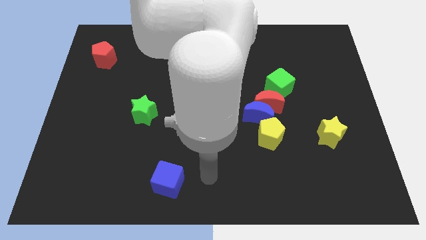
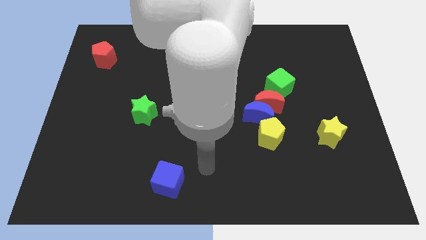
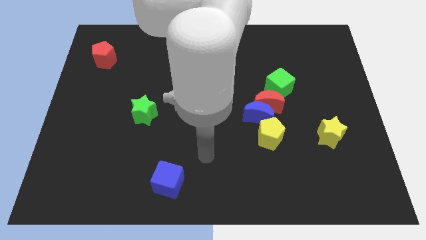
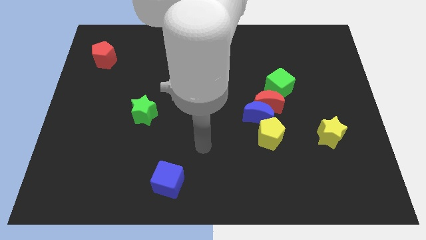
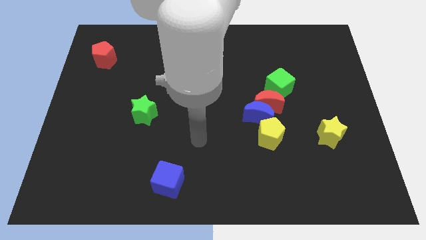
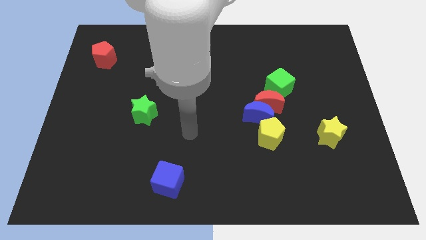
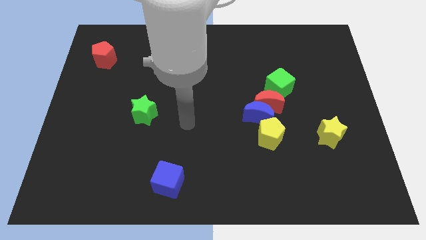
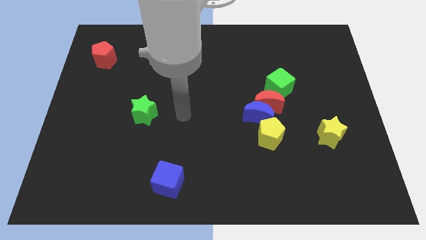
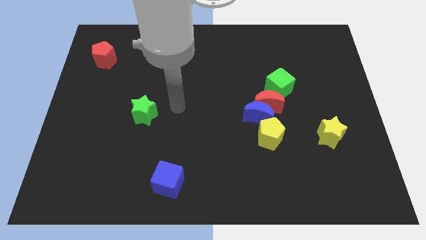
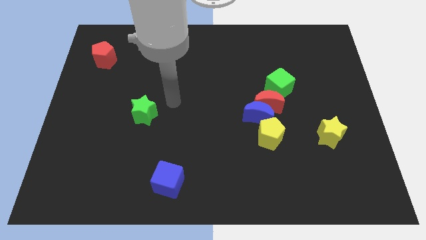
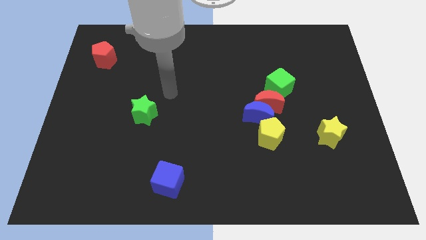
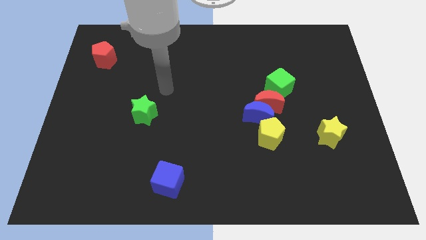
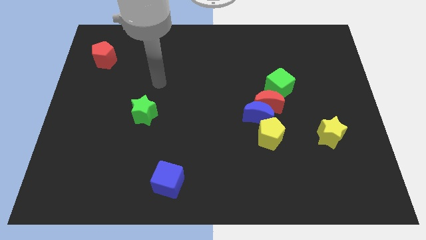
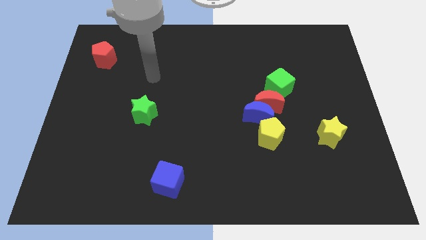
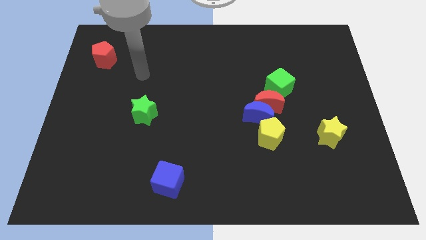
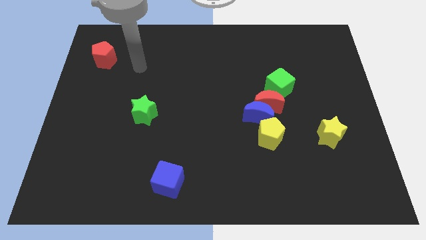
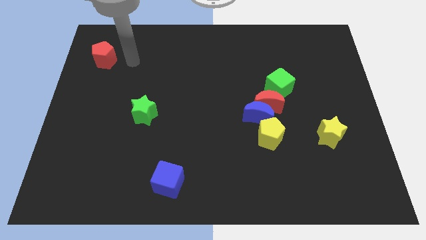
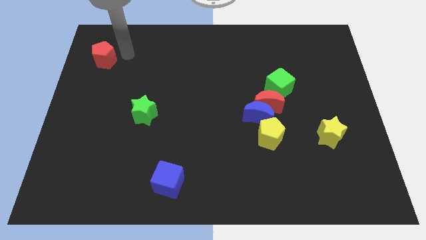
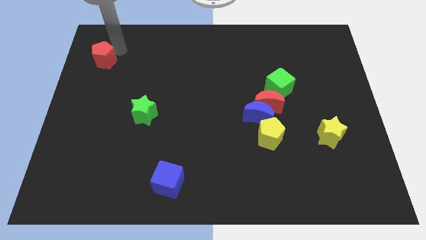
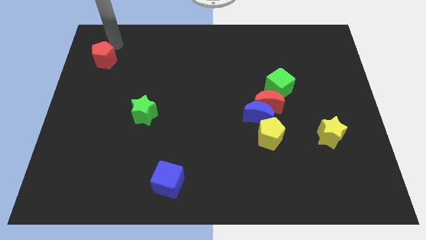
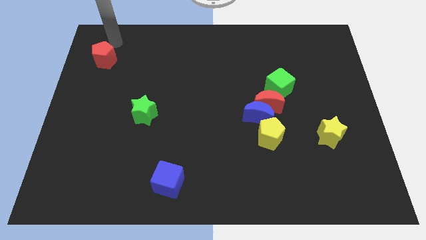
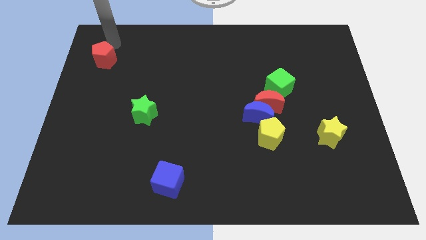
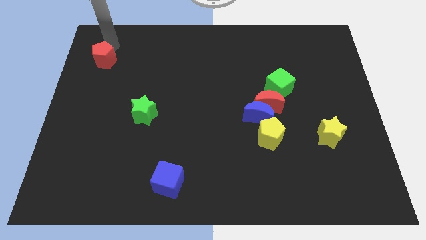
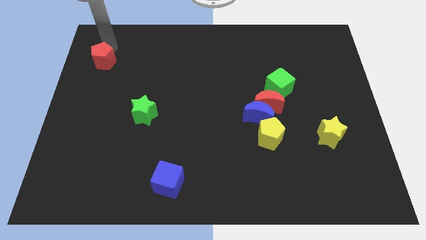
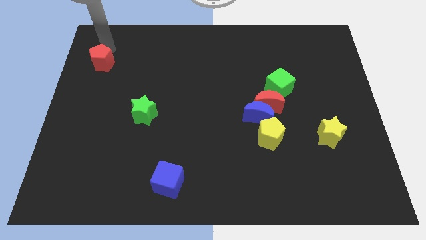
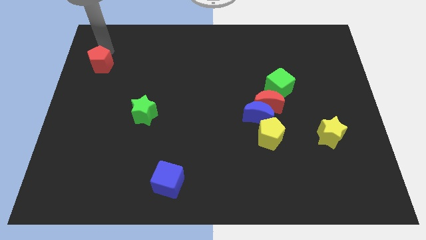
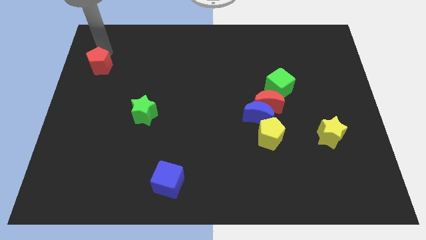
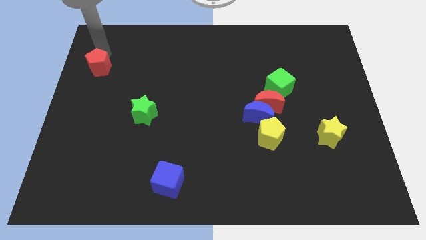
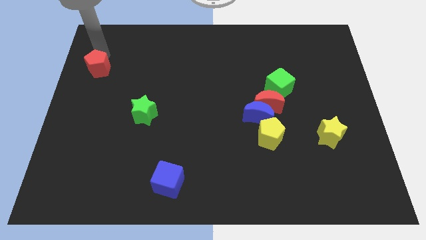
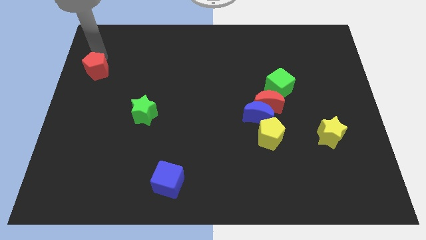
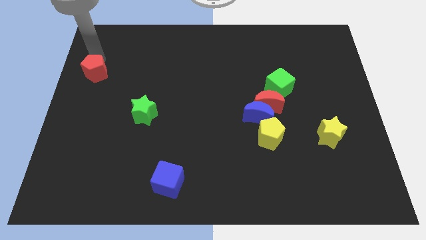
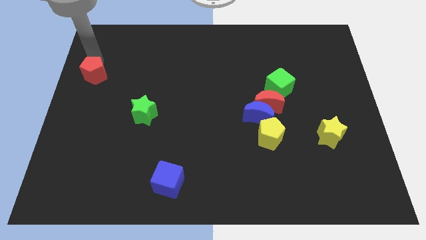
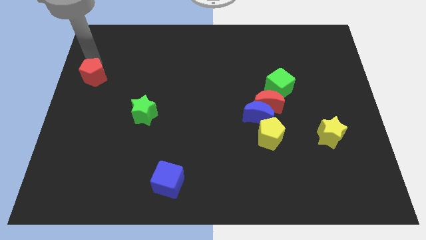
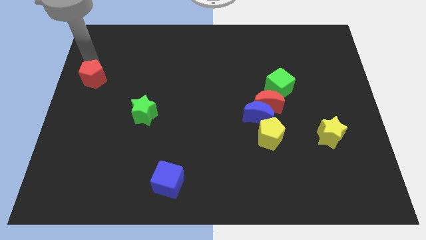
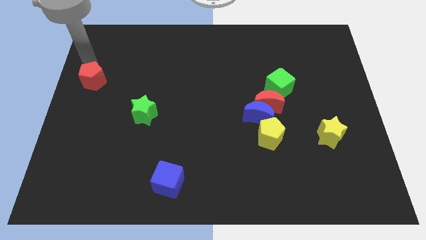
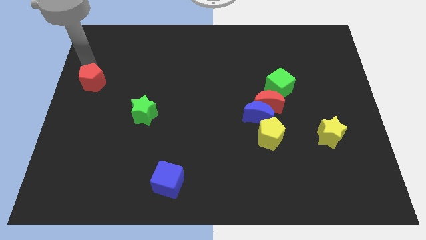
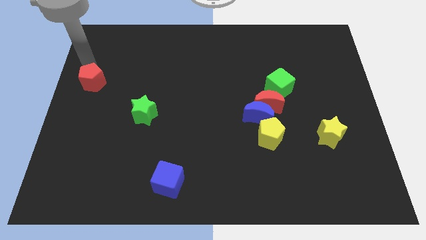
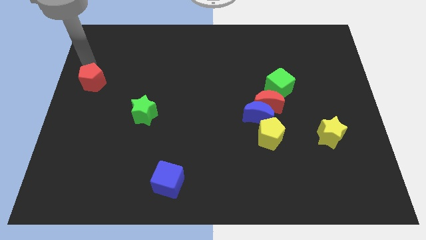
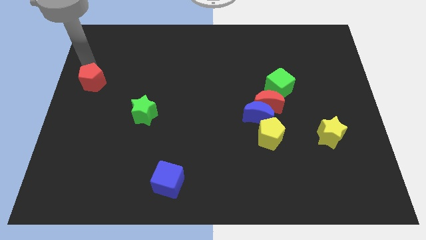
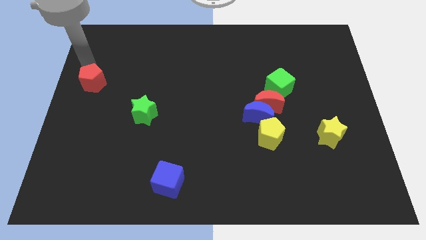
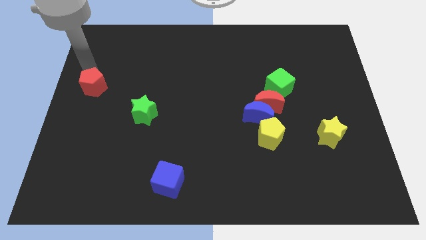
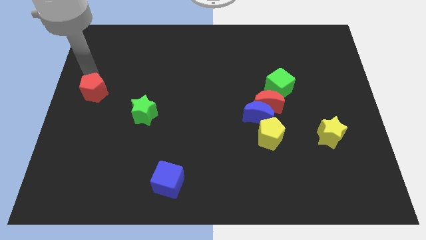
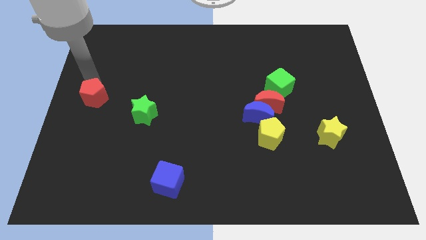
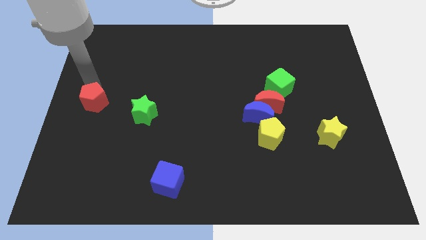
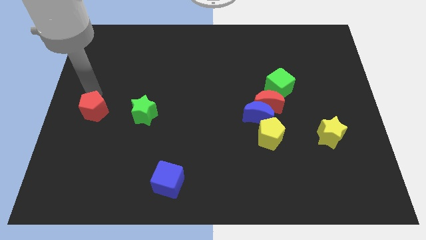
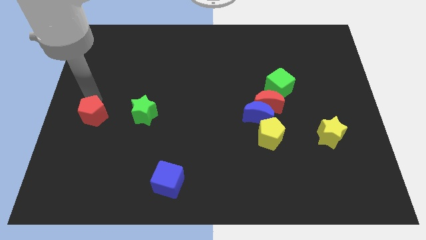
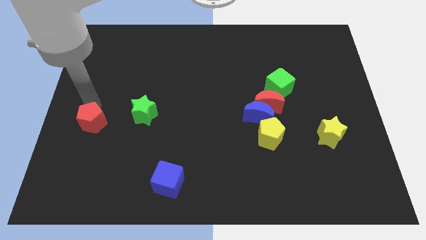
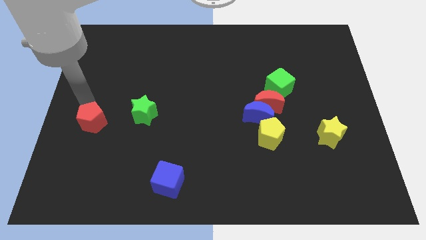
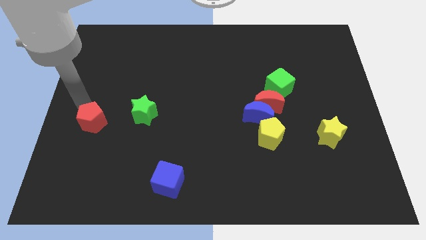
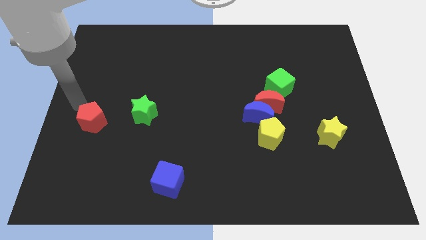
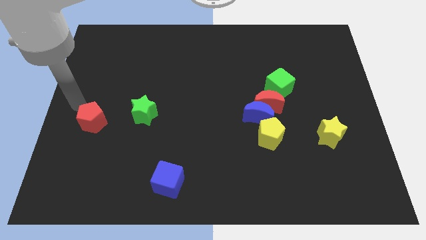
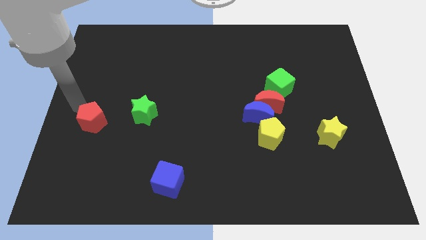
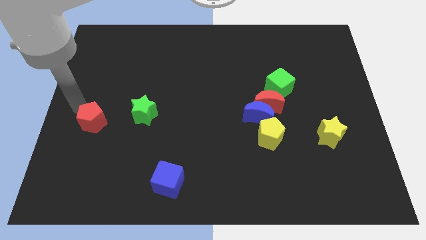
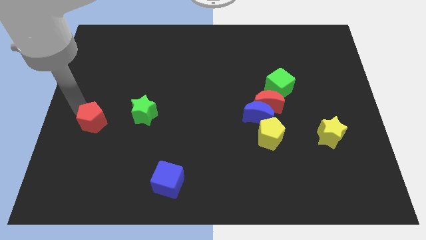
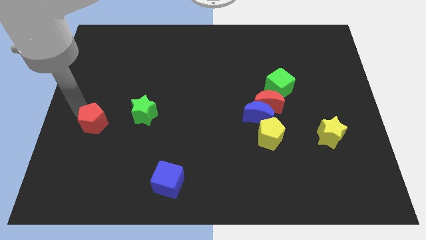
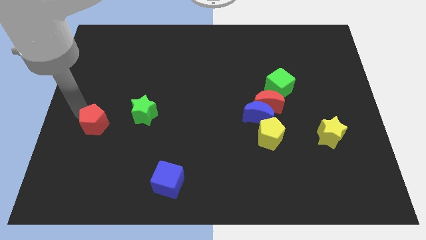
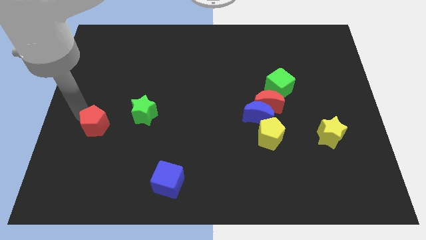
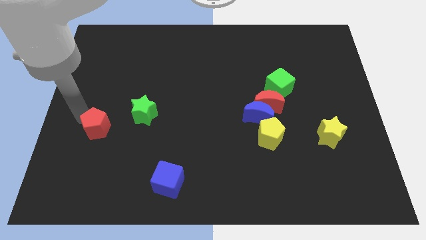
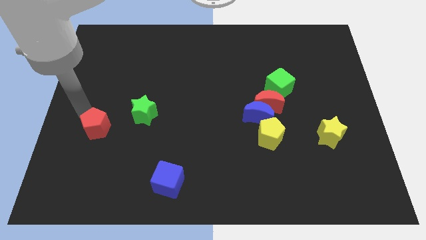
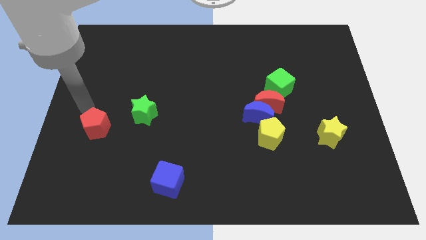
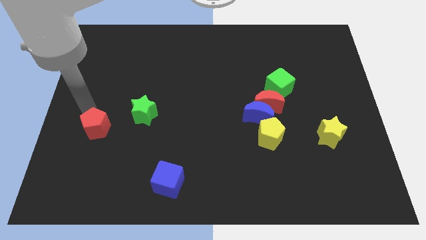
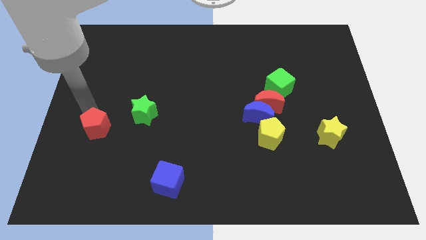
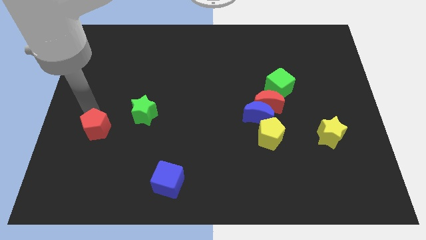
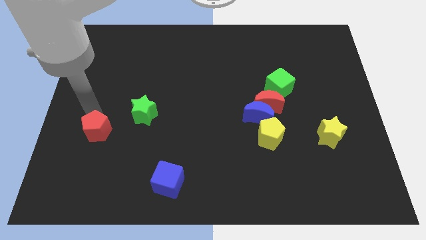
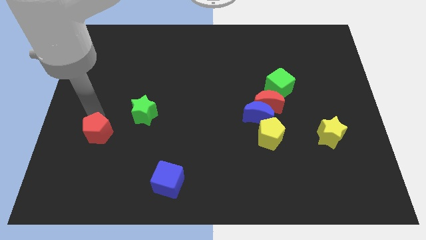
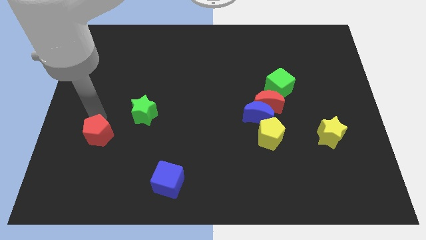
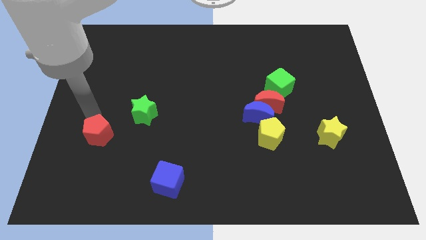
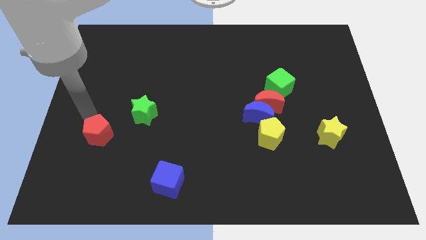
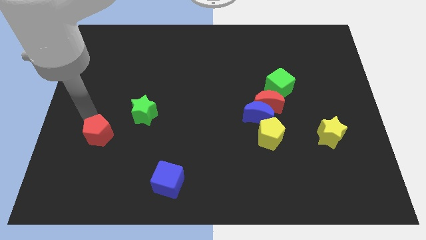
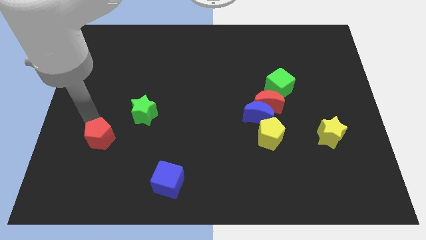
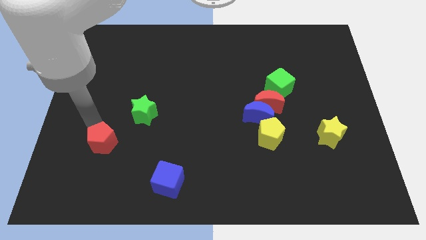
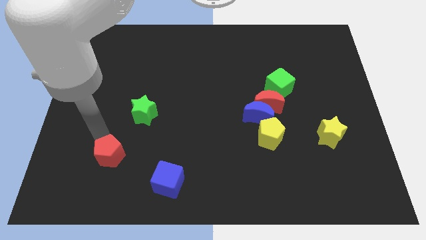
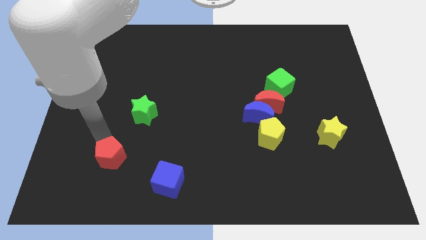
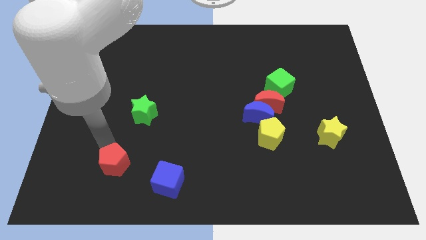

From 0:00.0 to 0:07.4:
push the red pentagon to the left side of the blue cube

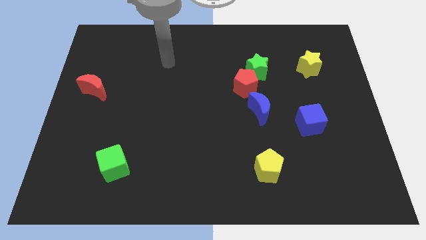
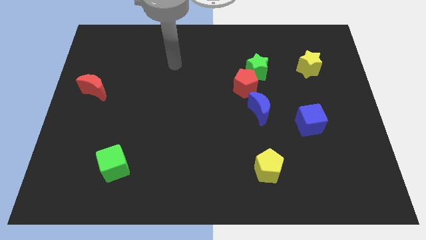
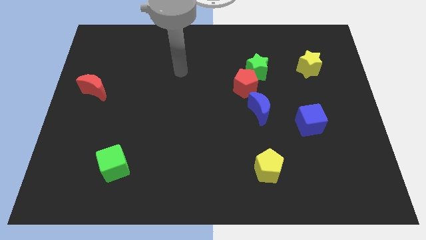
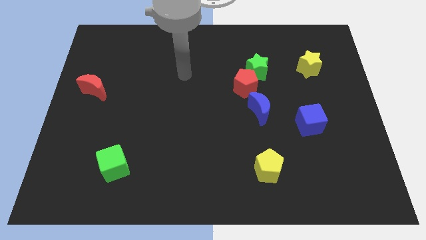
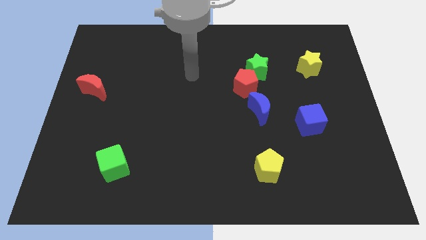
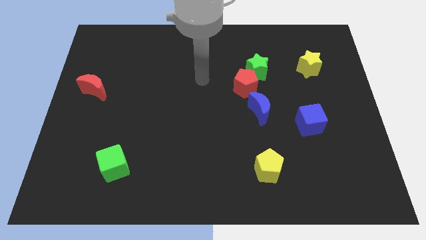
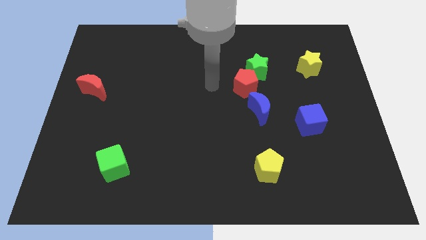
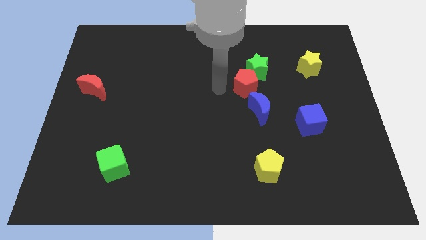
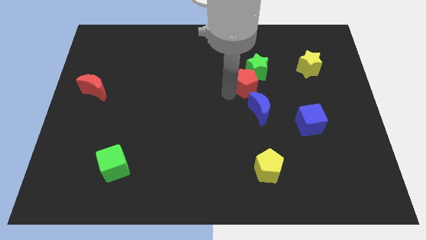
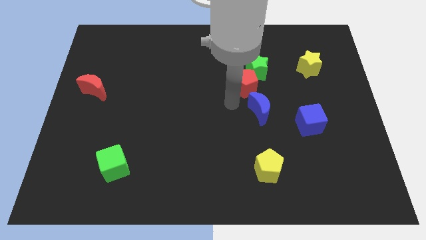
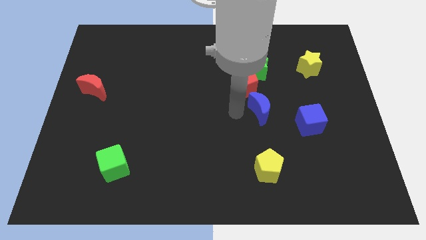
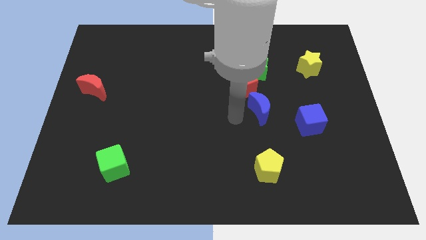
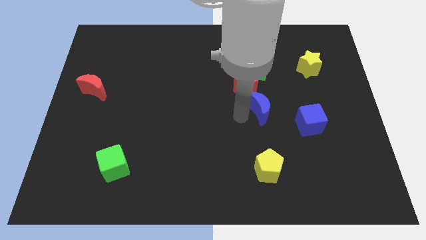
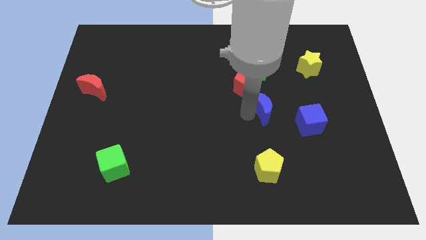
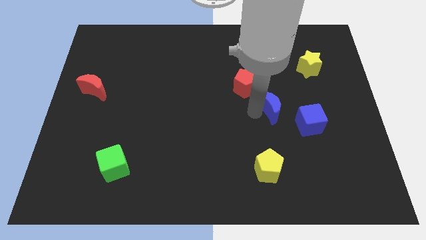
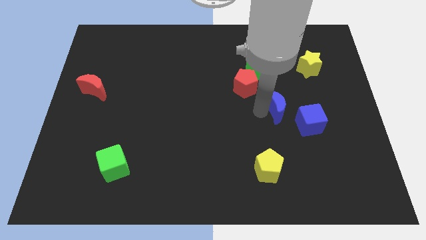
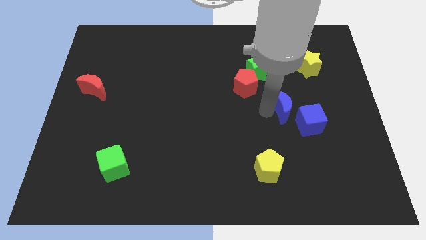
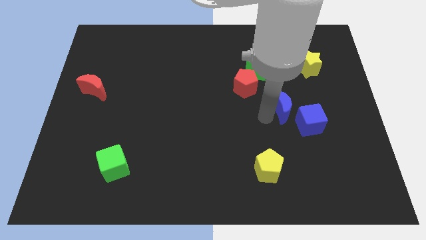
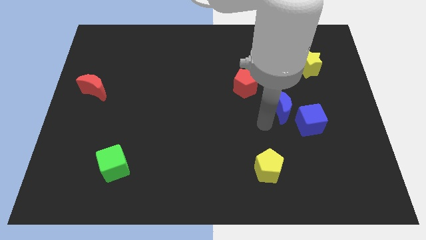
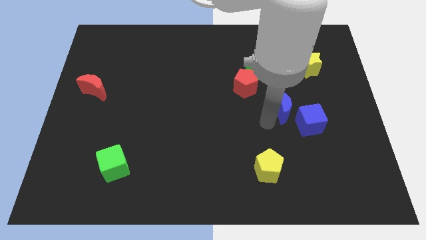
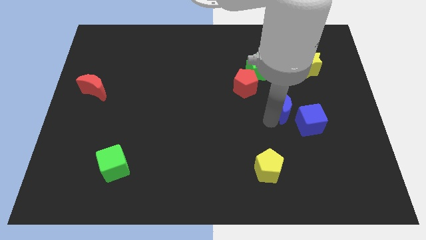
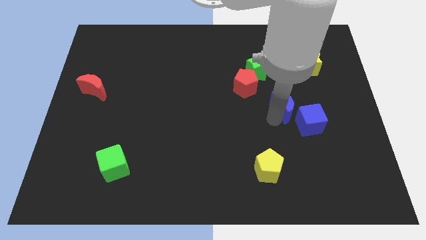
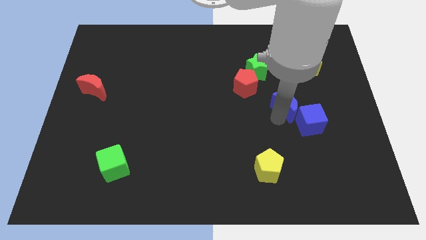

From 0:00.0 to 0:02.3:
push the blue moon to the top side of the blue cube
